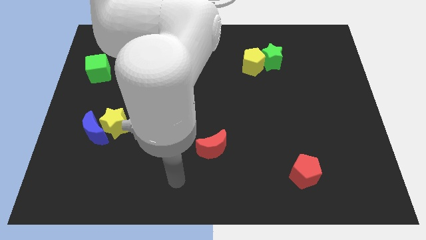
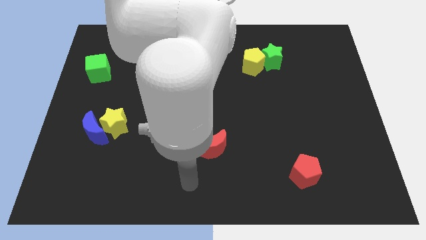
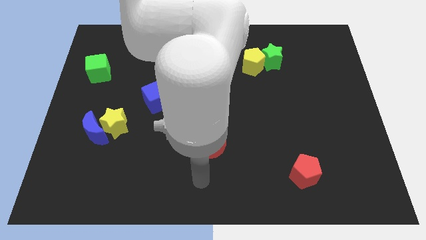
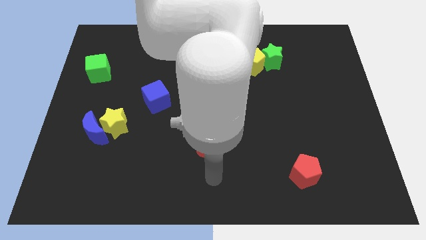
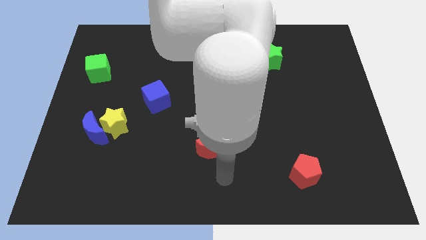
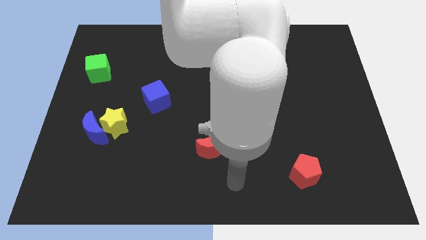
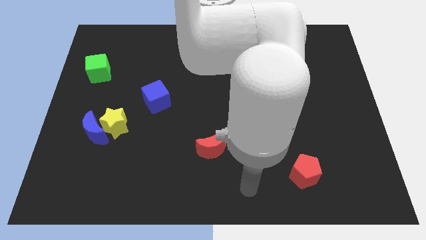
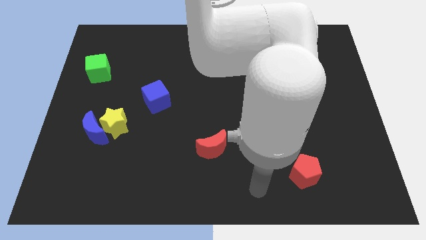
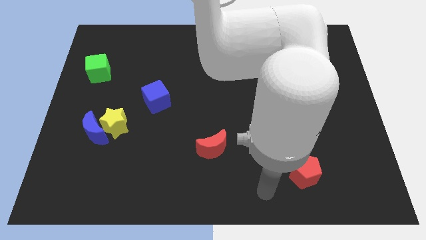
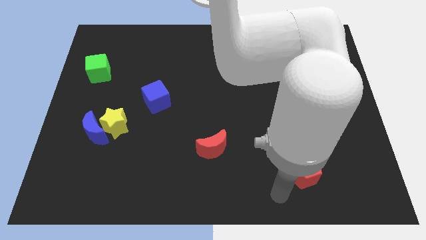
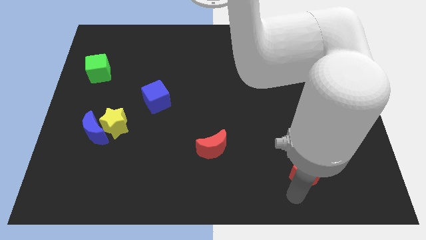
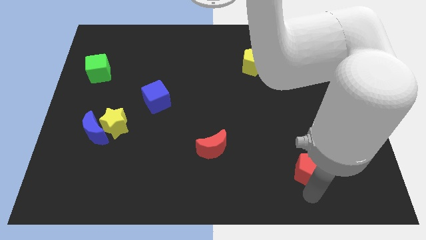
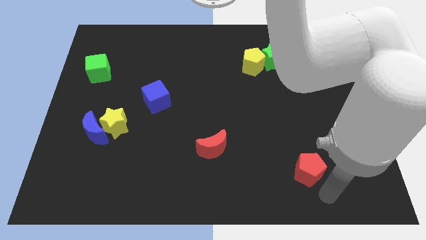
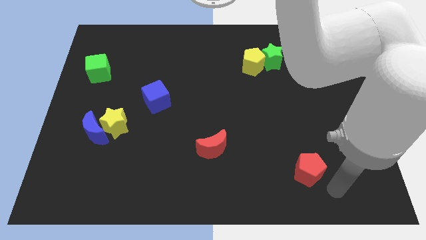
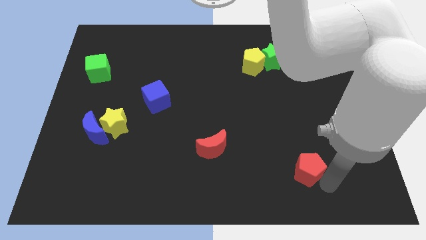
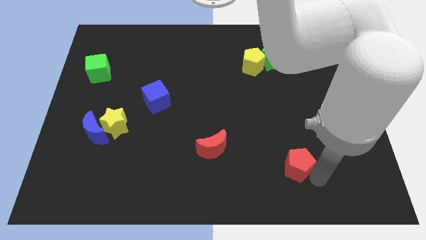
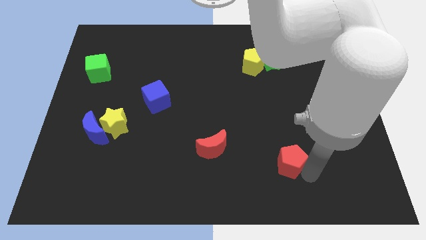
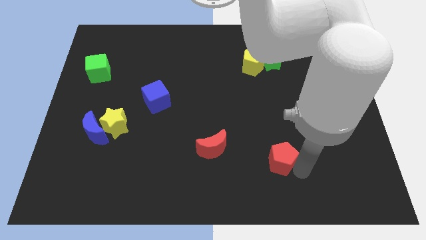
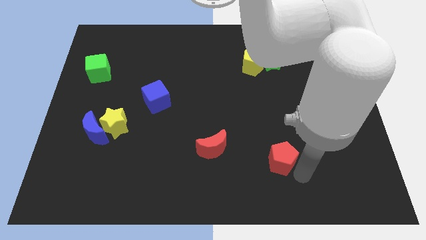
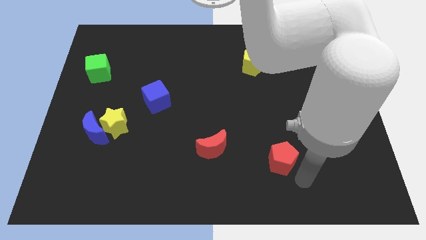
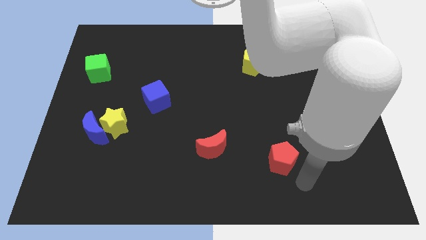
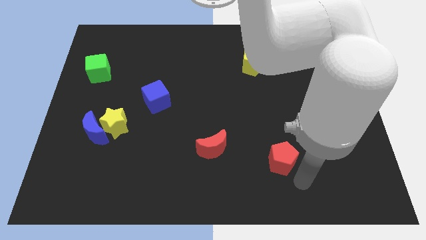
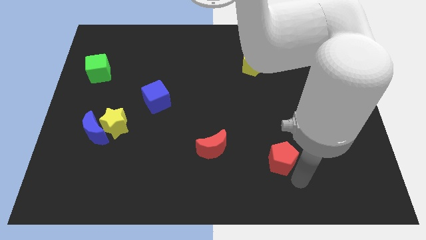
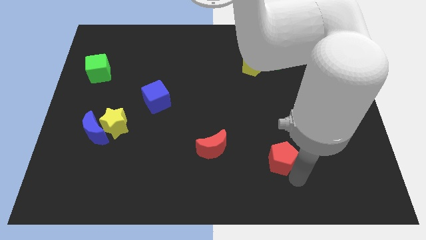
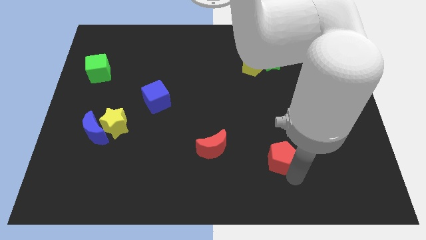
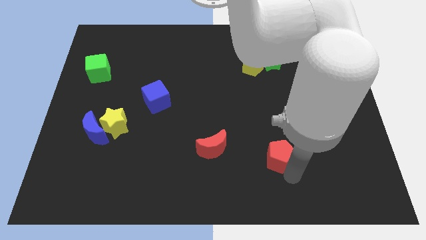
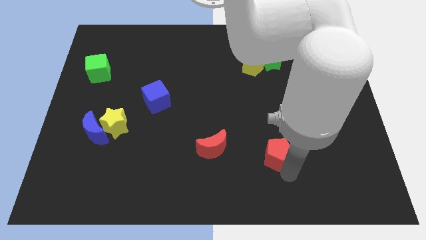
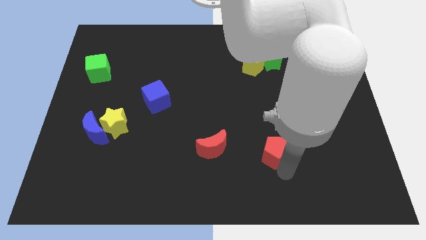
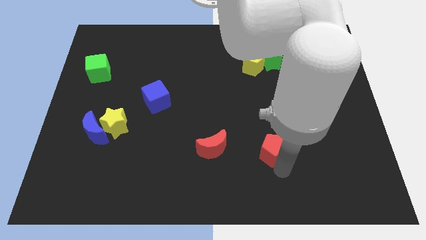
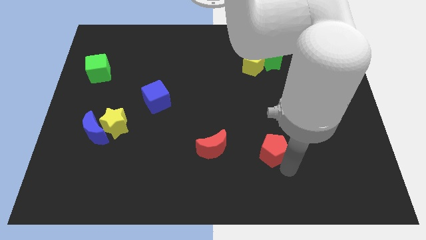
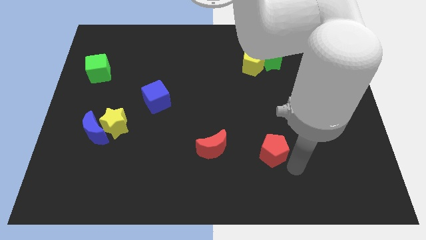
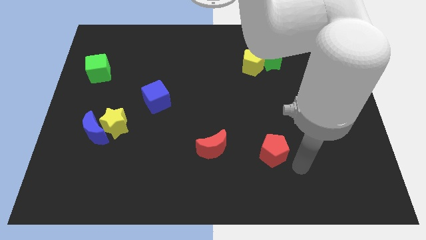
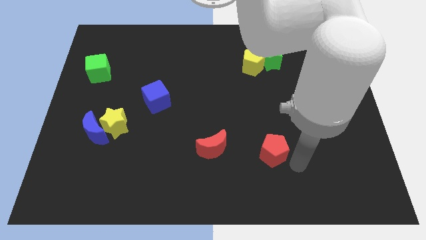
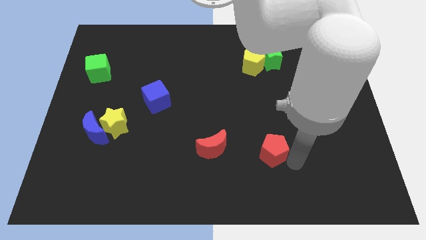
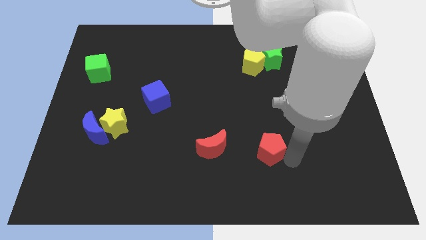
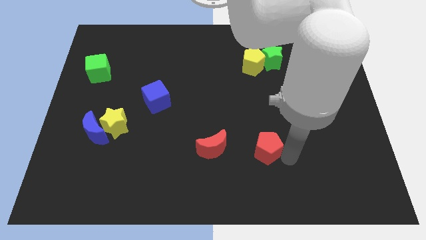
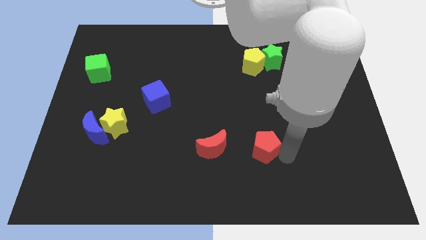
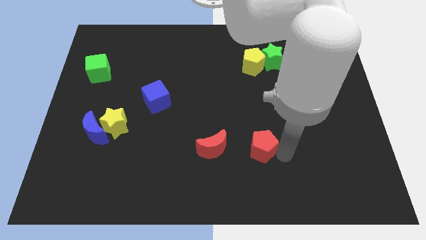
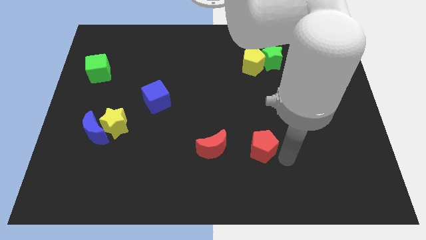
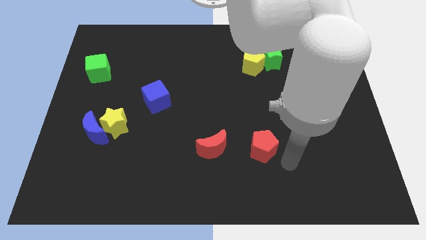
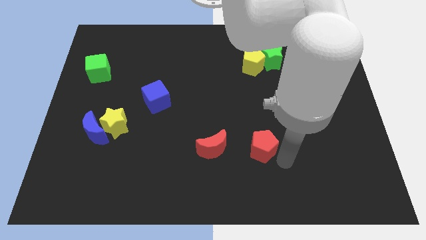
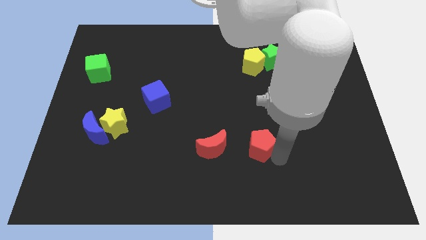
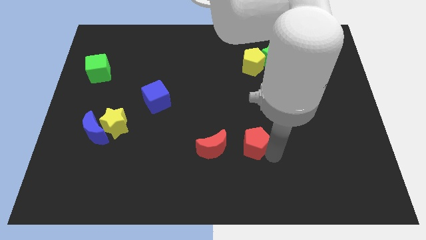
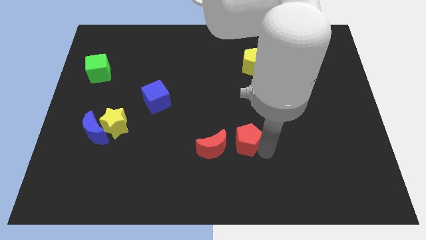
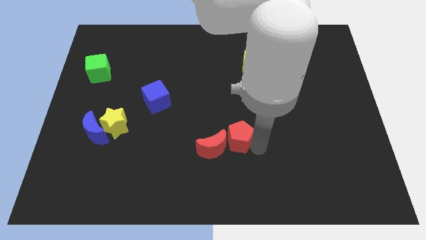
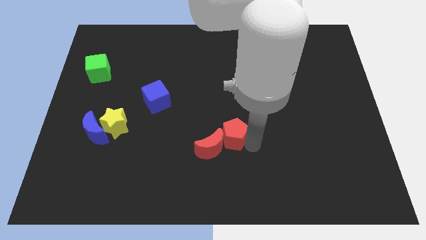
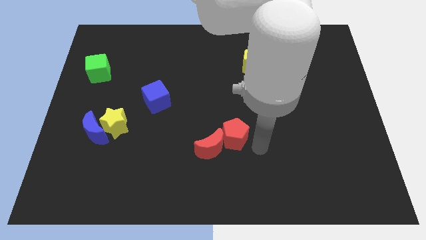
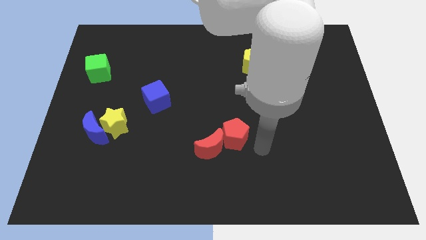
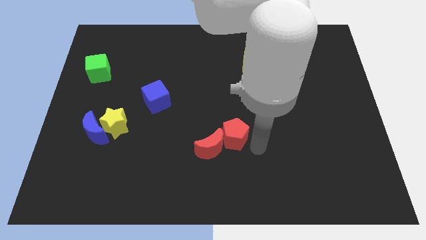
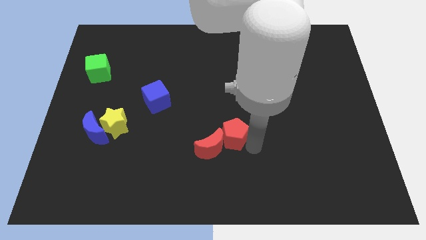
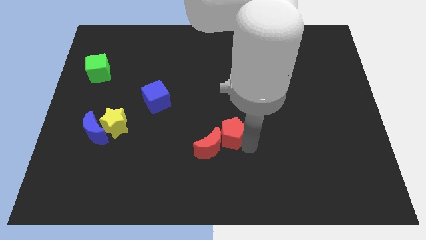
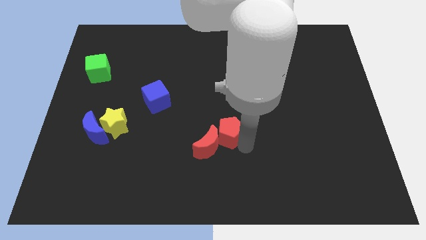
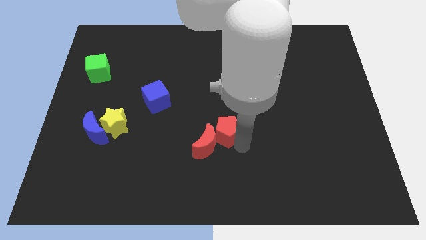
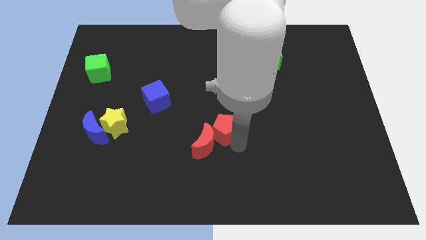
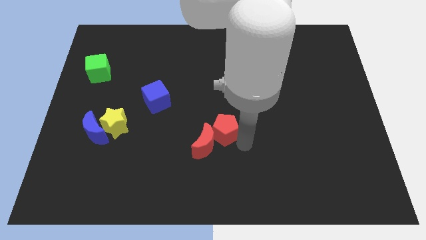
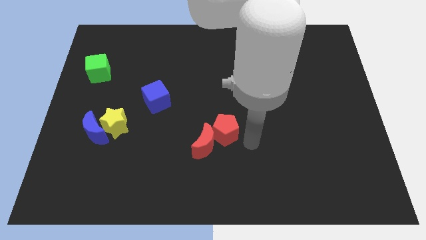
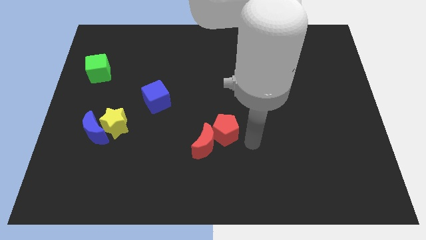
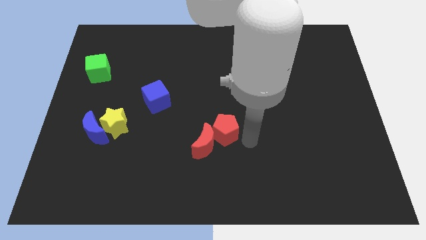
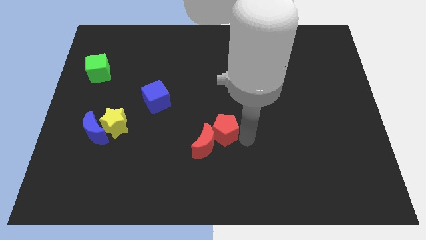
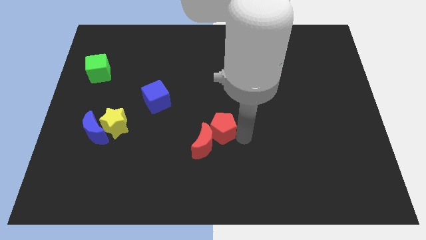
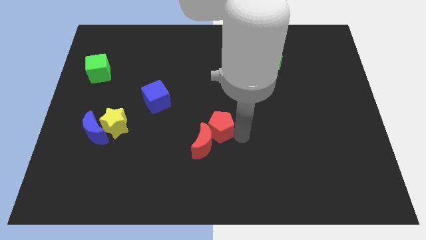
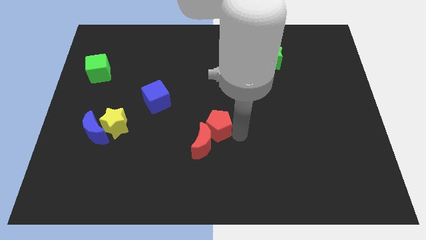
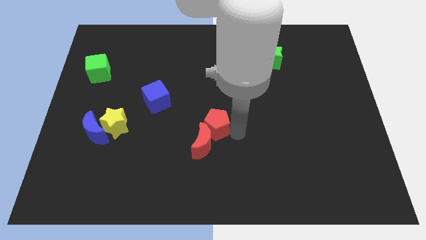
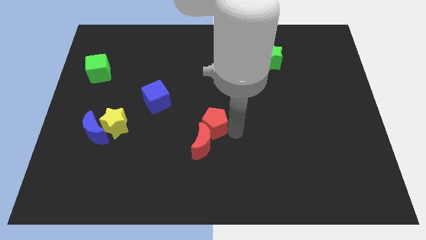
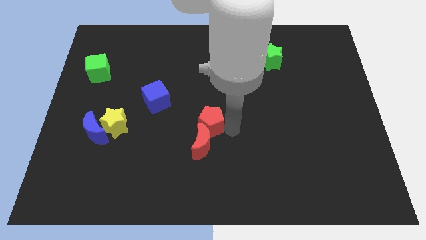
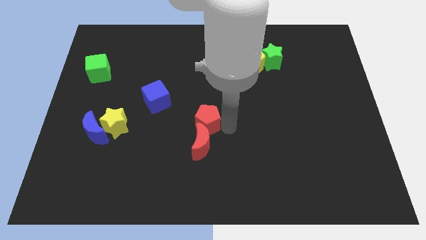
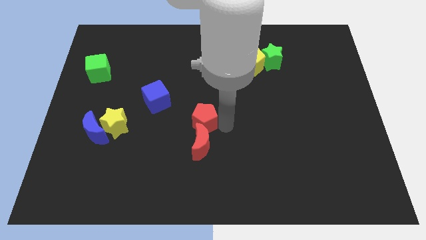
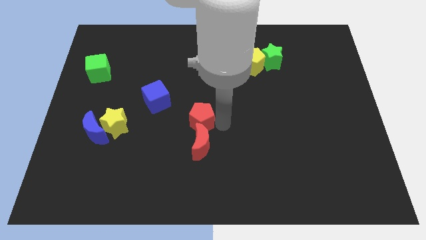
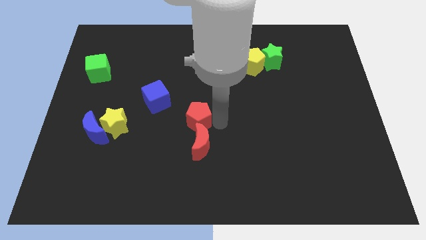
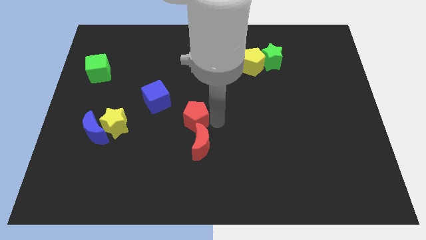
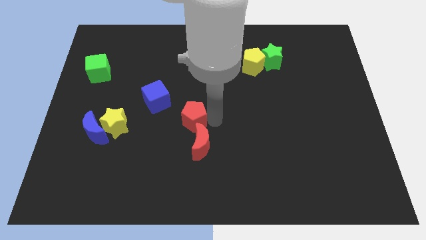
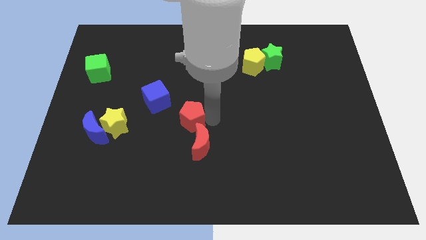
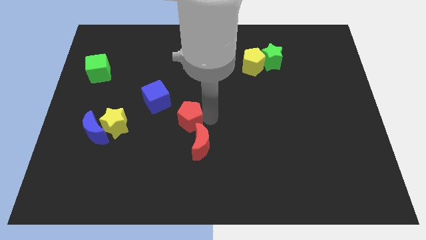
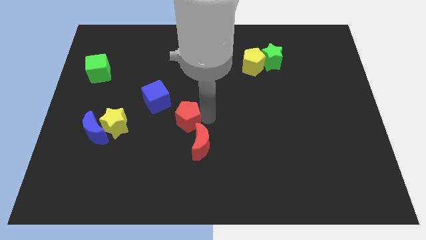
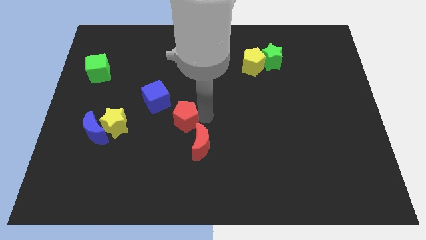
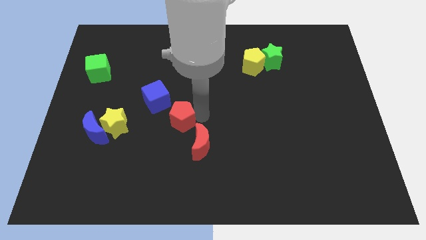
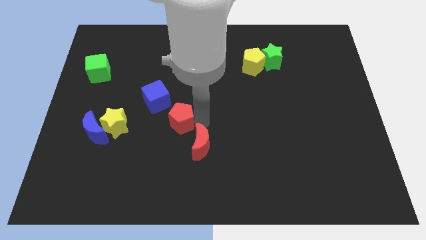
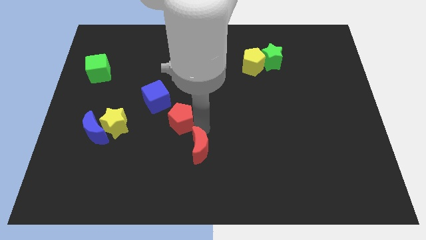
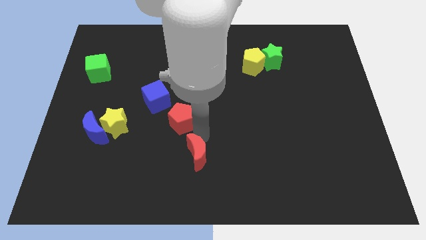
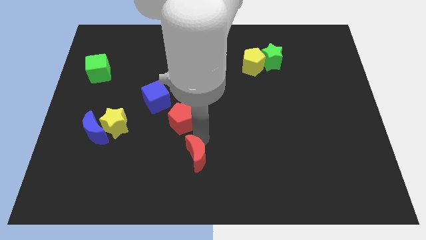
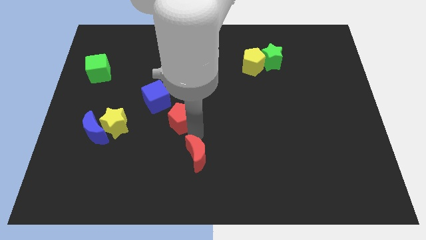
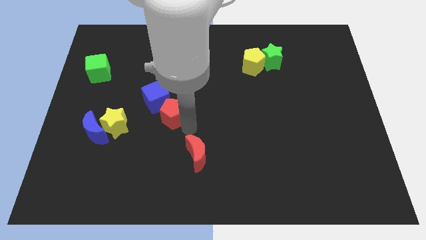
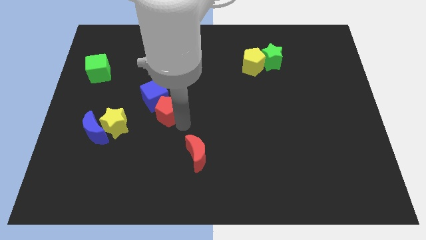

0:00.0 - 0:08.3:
push the red pentagon to the blue cube
